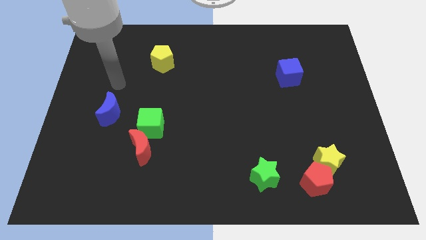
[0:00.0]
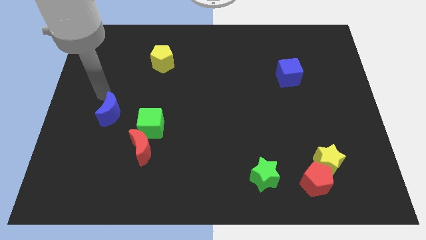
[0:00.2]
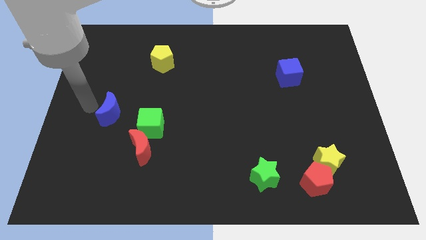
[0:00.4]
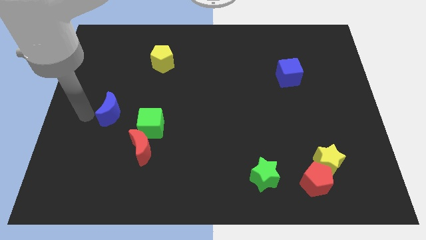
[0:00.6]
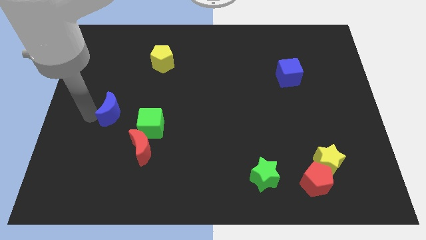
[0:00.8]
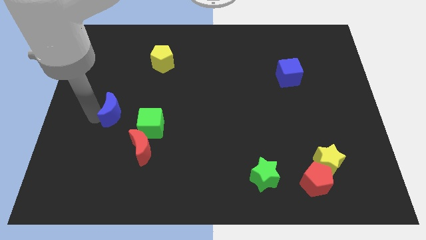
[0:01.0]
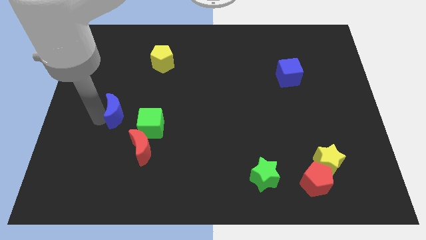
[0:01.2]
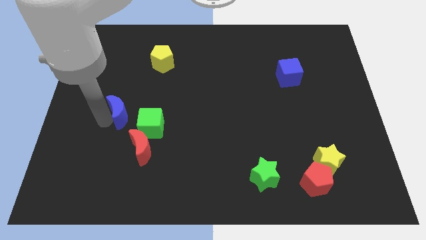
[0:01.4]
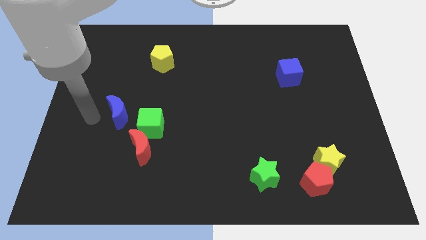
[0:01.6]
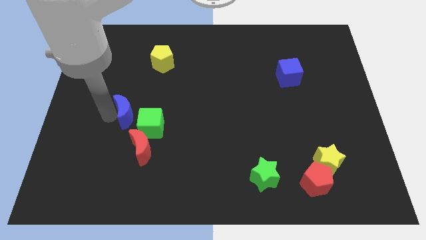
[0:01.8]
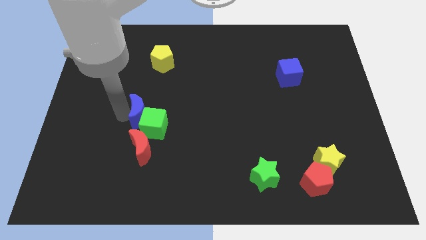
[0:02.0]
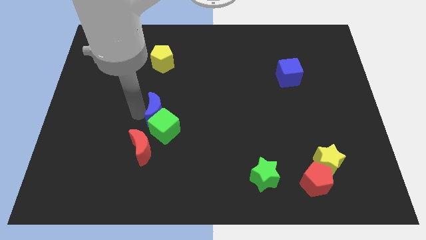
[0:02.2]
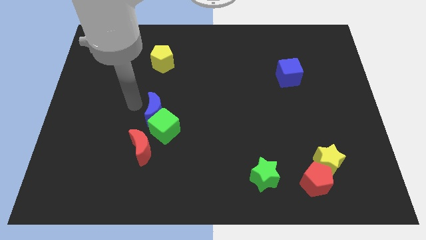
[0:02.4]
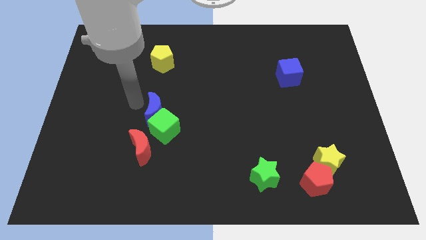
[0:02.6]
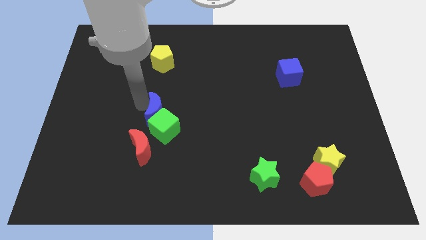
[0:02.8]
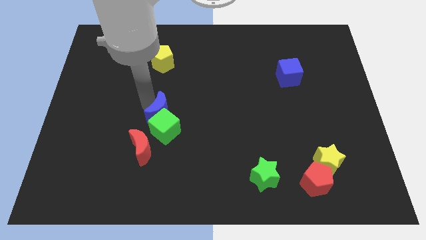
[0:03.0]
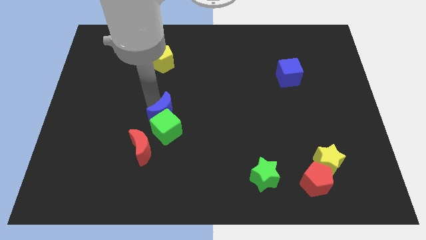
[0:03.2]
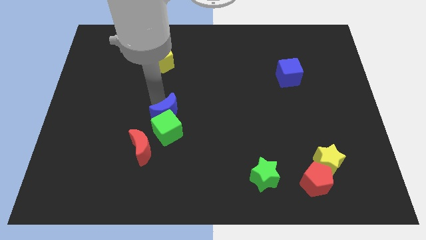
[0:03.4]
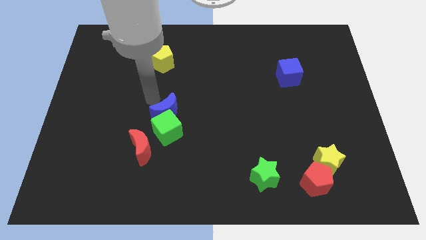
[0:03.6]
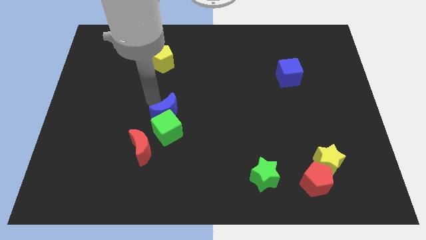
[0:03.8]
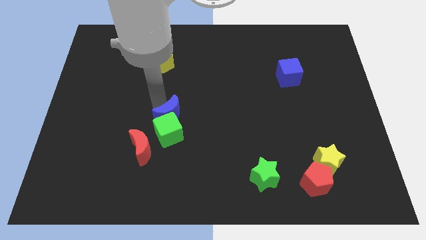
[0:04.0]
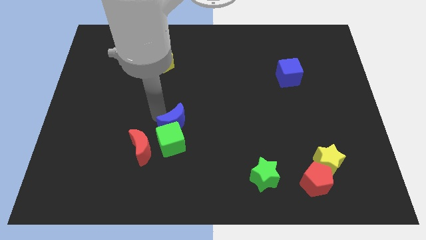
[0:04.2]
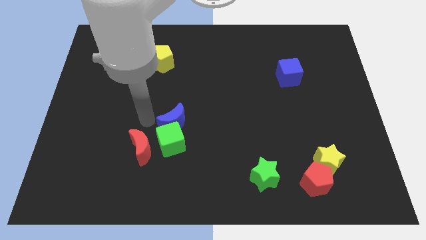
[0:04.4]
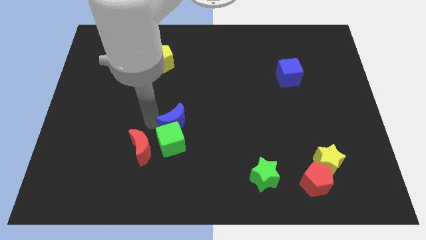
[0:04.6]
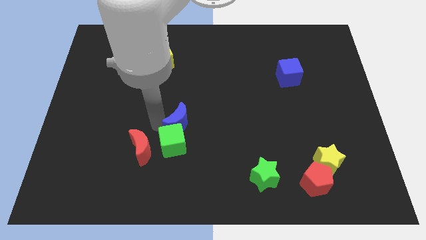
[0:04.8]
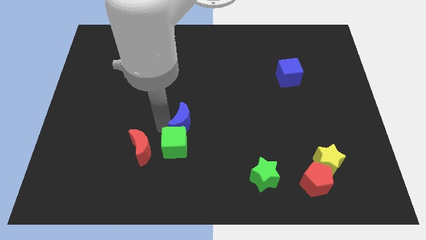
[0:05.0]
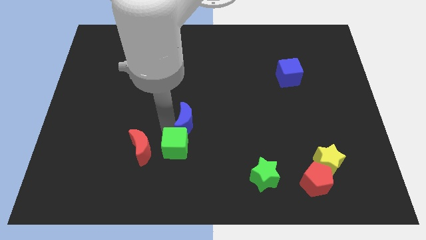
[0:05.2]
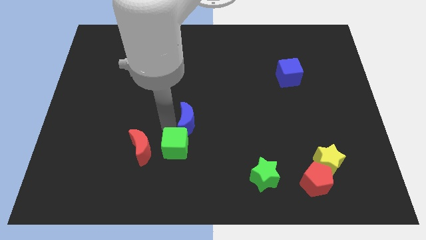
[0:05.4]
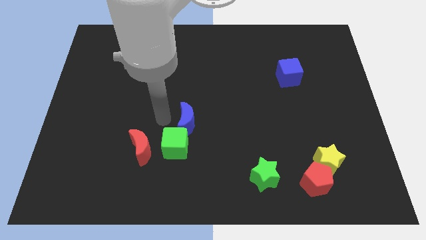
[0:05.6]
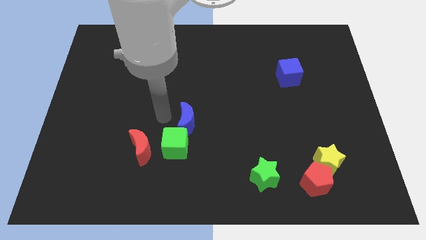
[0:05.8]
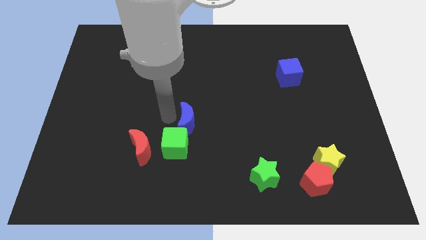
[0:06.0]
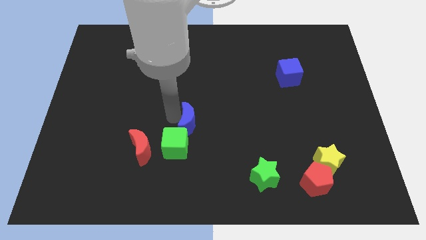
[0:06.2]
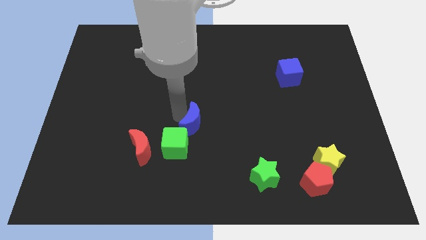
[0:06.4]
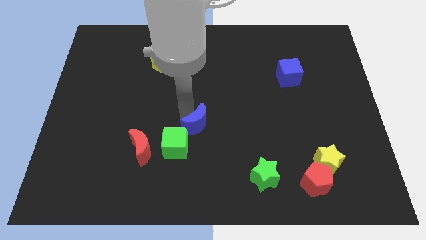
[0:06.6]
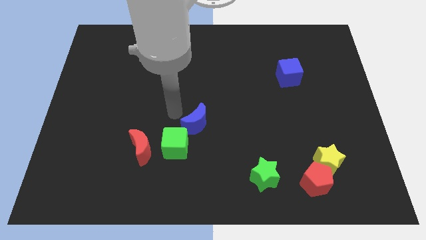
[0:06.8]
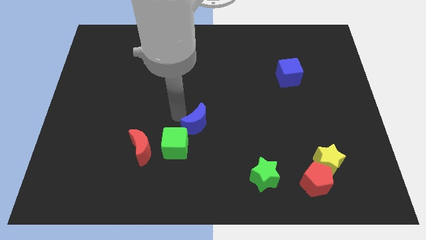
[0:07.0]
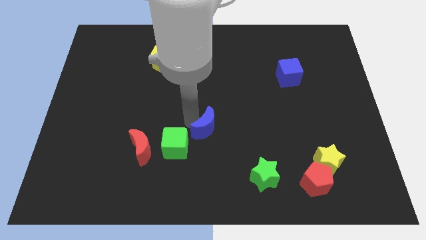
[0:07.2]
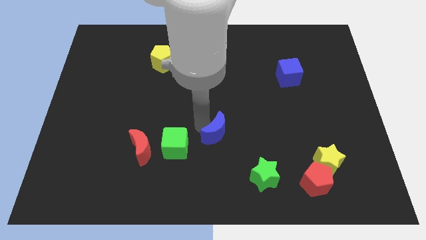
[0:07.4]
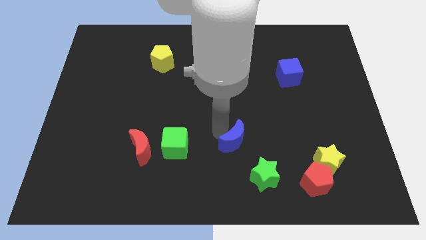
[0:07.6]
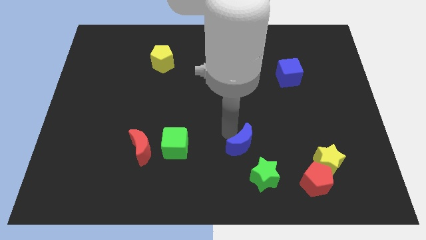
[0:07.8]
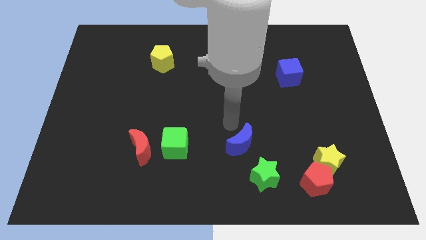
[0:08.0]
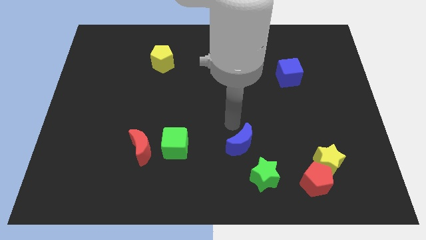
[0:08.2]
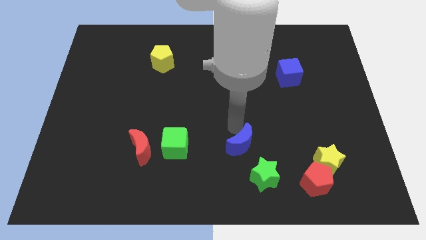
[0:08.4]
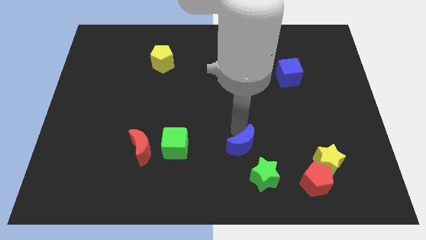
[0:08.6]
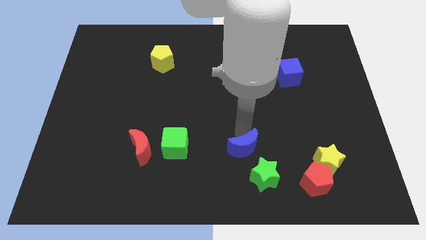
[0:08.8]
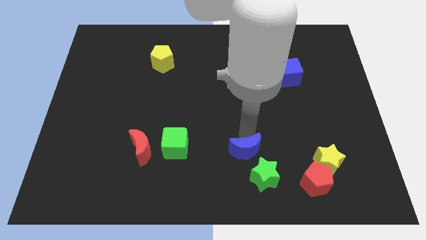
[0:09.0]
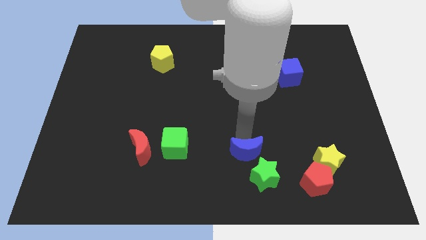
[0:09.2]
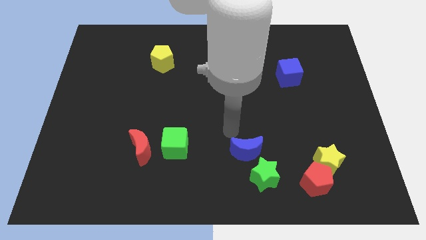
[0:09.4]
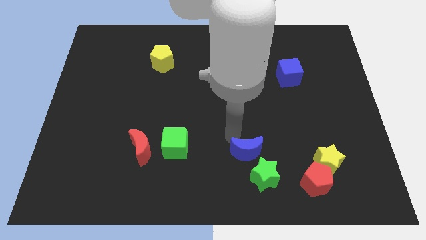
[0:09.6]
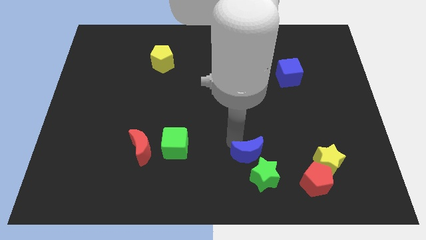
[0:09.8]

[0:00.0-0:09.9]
move the blue moon close to the green star

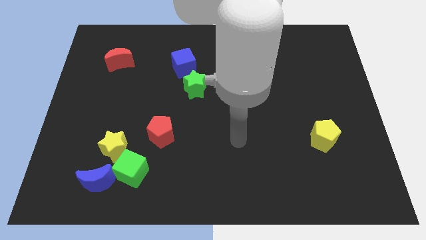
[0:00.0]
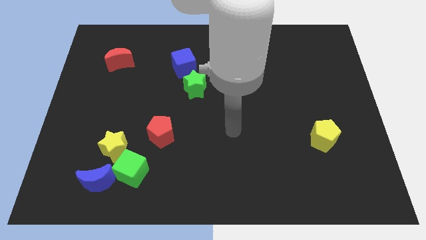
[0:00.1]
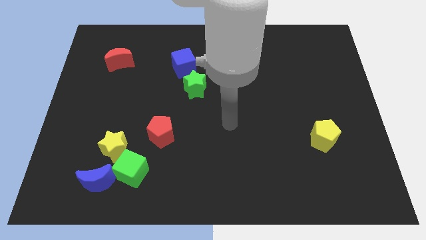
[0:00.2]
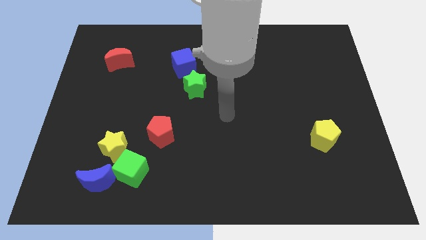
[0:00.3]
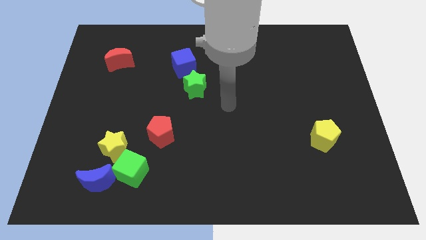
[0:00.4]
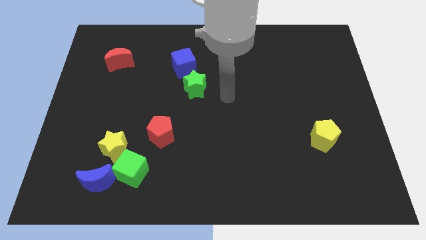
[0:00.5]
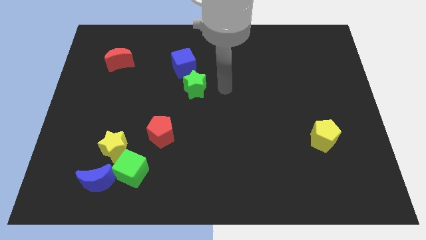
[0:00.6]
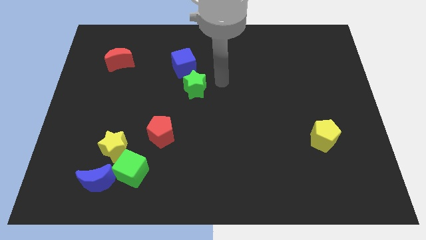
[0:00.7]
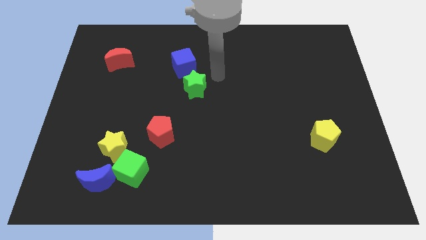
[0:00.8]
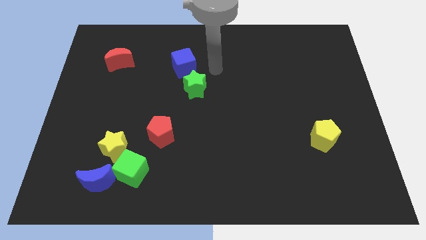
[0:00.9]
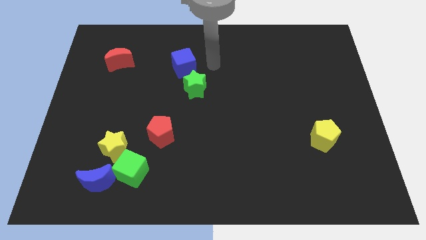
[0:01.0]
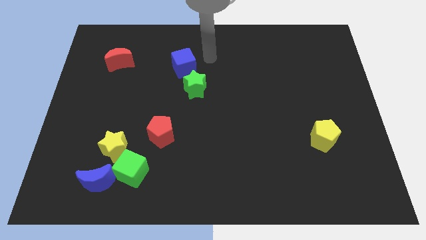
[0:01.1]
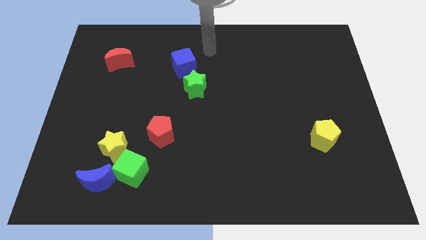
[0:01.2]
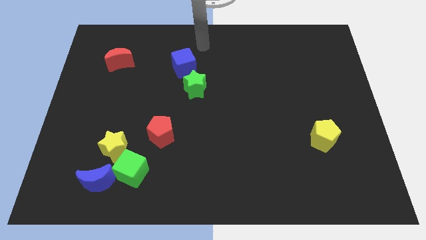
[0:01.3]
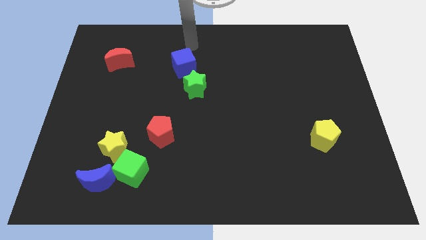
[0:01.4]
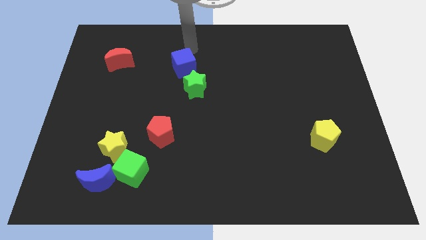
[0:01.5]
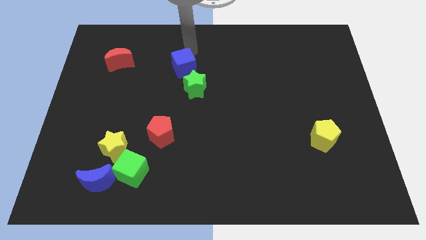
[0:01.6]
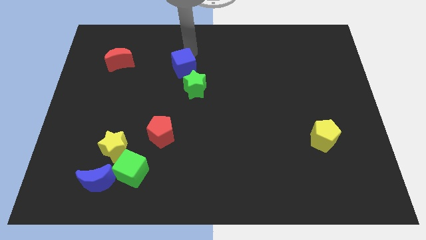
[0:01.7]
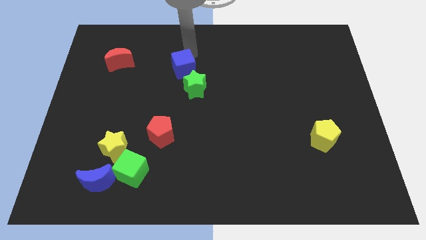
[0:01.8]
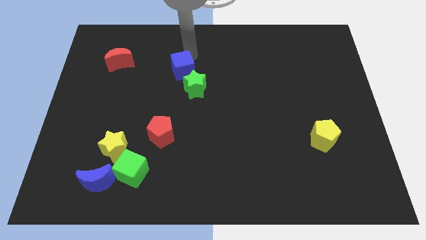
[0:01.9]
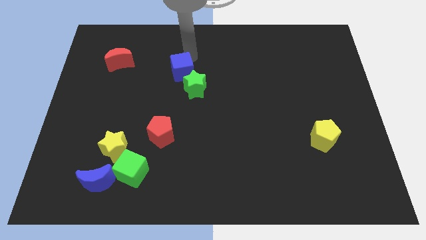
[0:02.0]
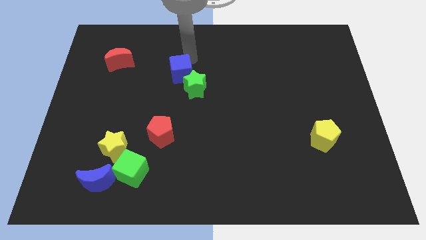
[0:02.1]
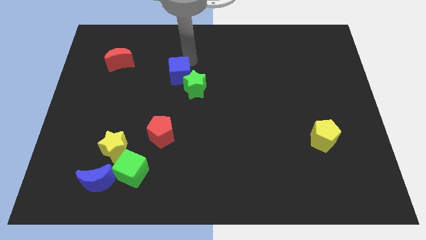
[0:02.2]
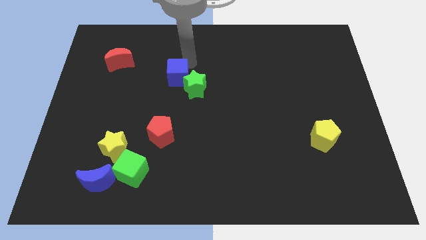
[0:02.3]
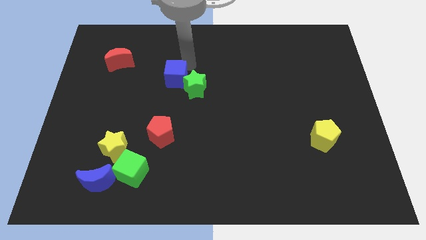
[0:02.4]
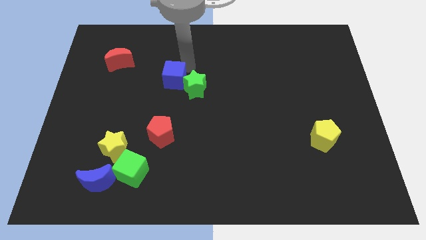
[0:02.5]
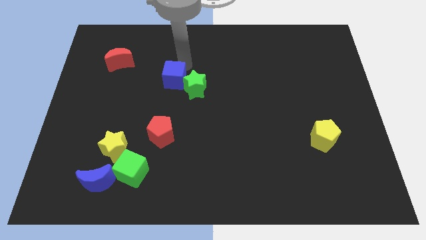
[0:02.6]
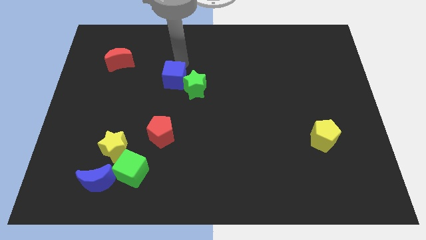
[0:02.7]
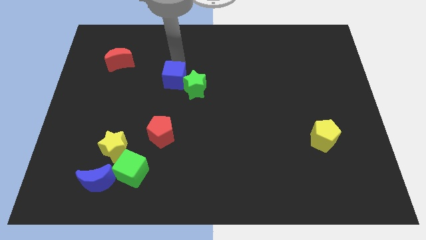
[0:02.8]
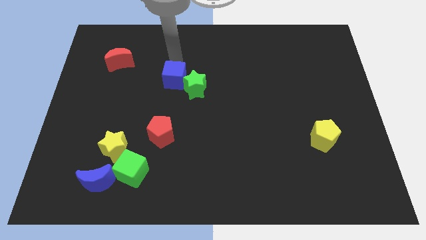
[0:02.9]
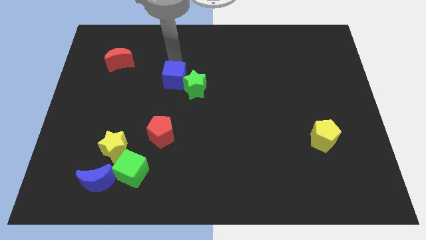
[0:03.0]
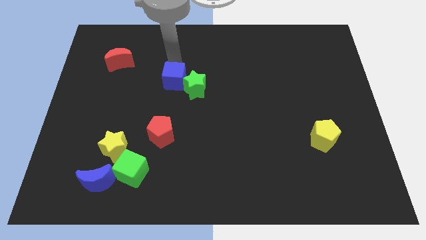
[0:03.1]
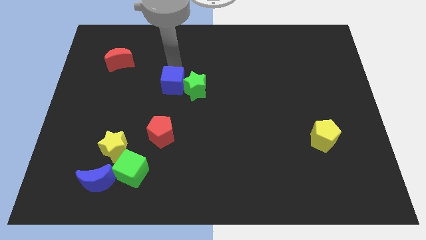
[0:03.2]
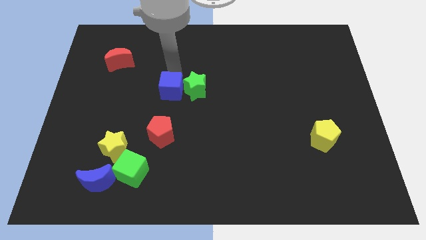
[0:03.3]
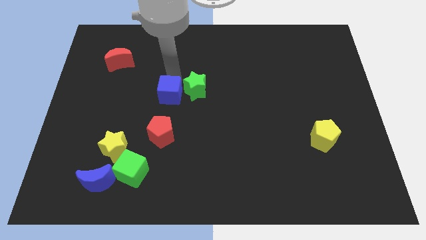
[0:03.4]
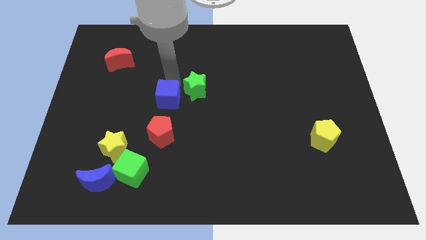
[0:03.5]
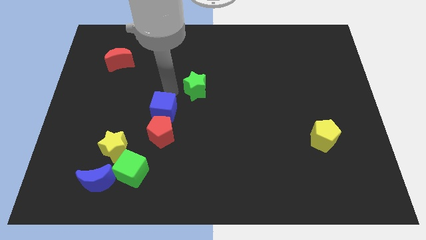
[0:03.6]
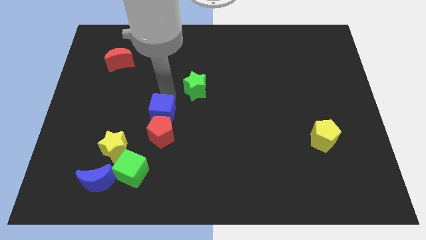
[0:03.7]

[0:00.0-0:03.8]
move the blue cube next to the red pentagon
